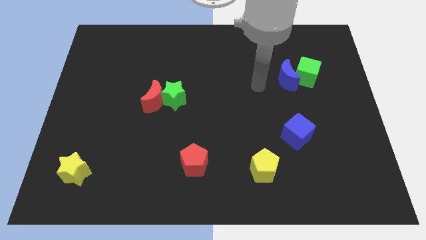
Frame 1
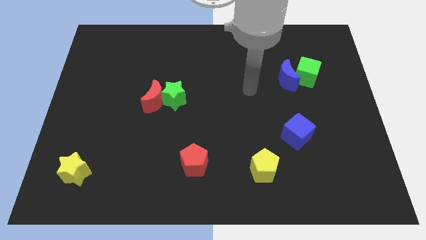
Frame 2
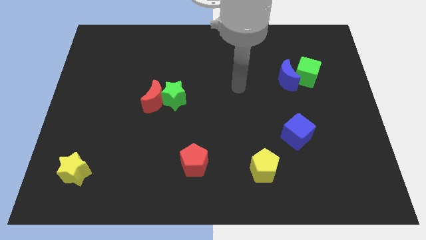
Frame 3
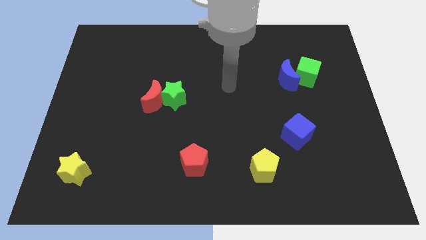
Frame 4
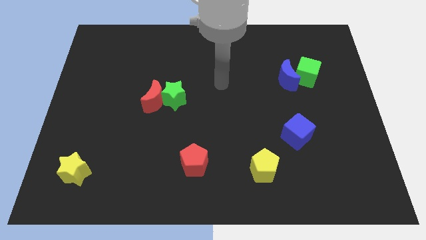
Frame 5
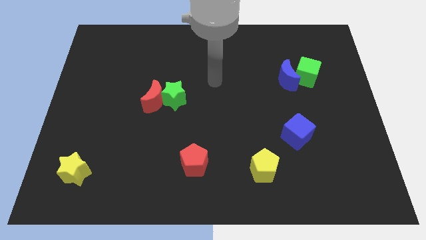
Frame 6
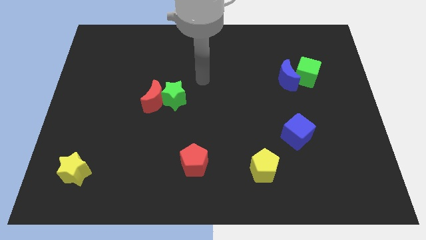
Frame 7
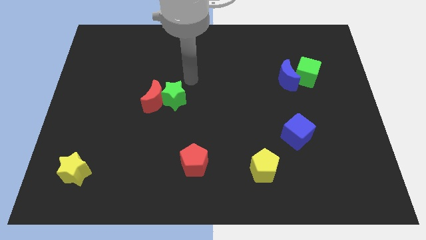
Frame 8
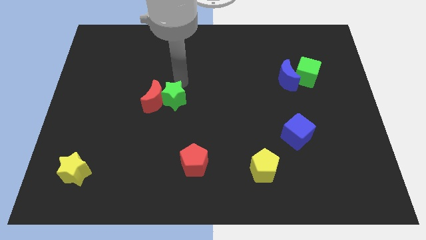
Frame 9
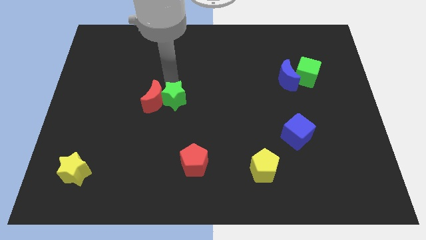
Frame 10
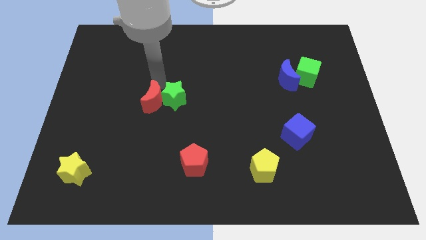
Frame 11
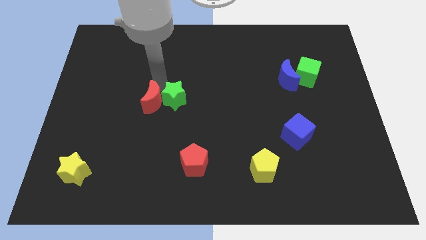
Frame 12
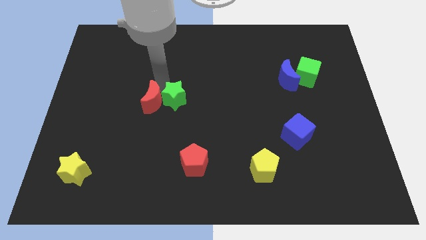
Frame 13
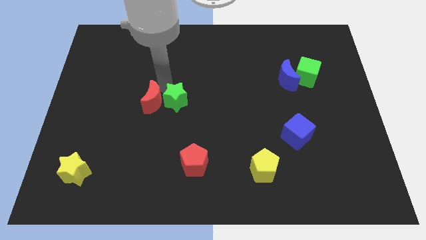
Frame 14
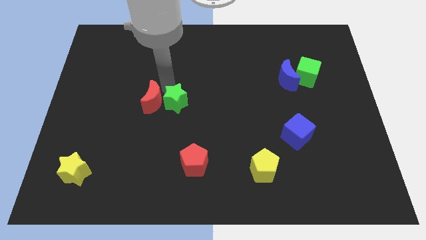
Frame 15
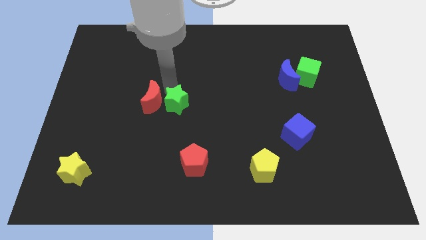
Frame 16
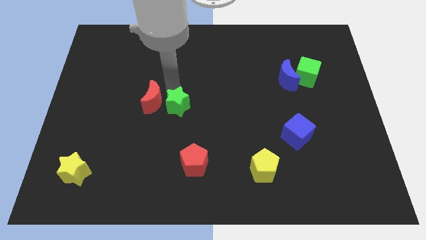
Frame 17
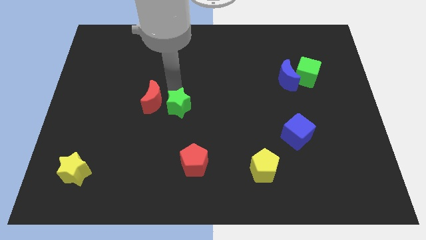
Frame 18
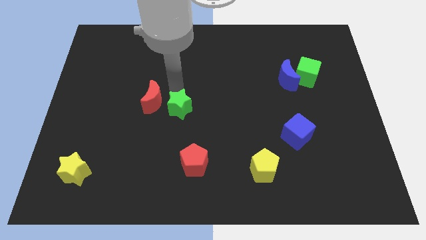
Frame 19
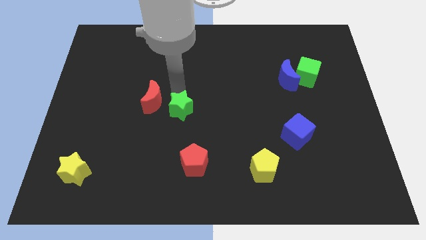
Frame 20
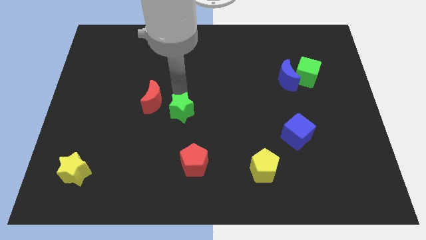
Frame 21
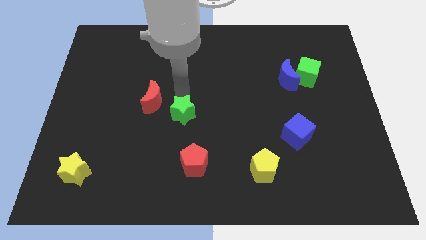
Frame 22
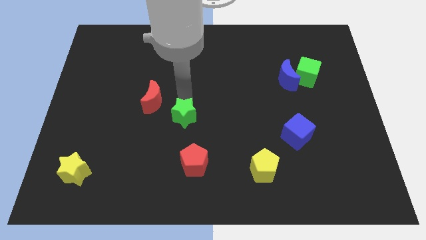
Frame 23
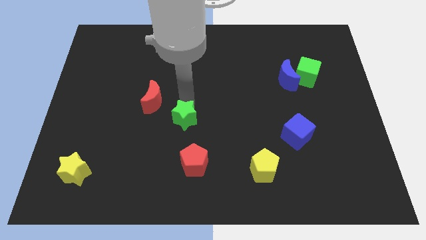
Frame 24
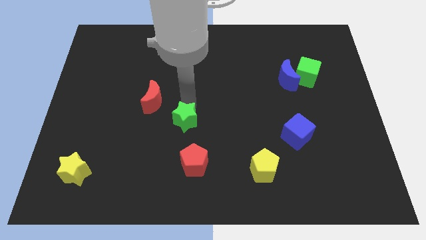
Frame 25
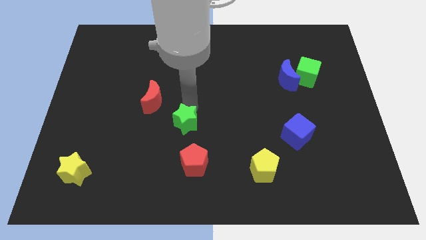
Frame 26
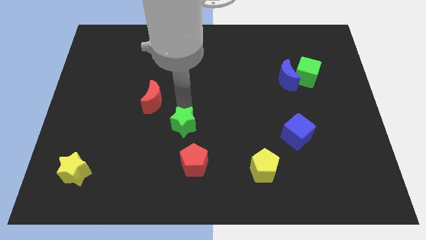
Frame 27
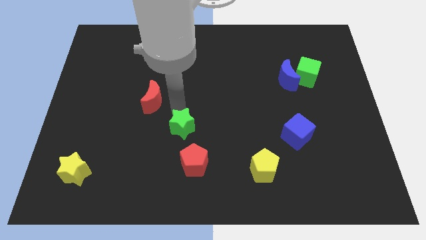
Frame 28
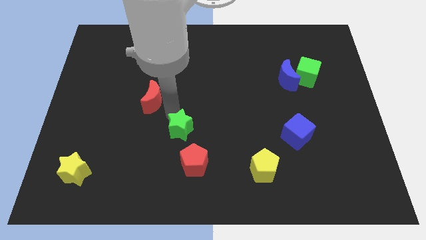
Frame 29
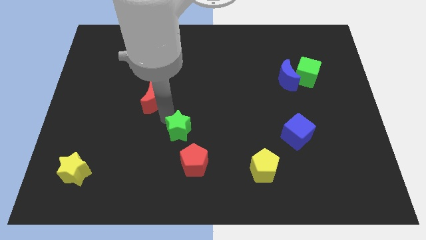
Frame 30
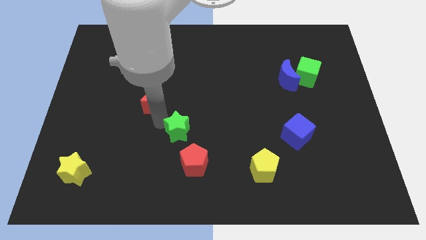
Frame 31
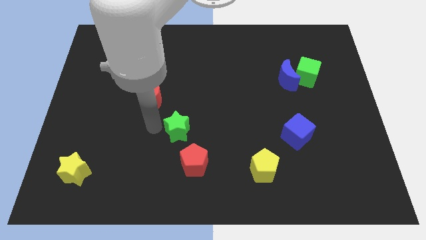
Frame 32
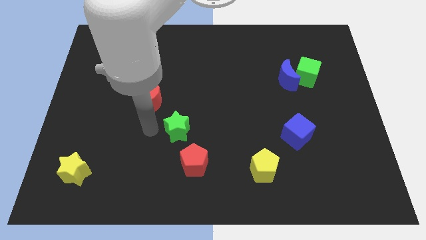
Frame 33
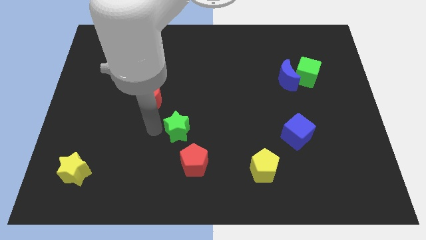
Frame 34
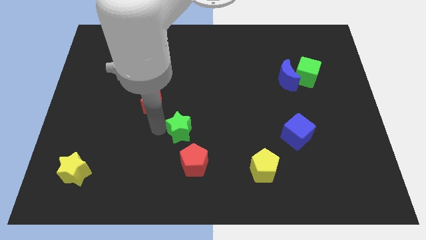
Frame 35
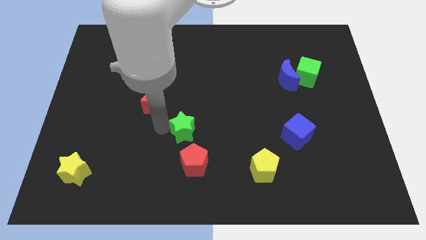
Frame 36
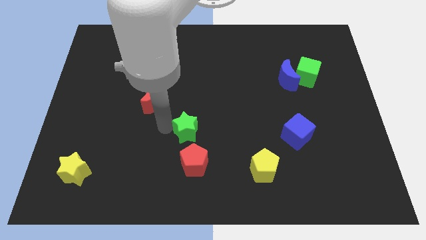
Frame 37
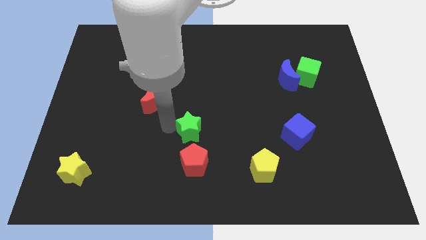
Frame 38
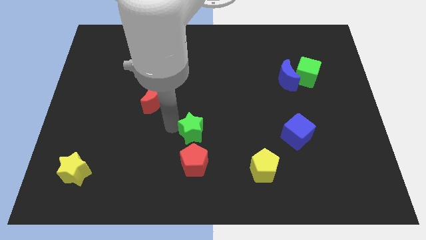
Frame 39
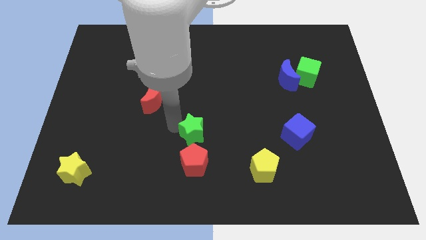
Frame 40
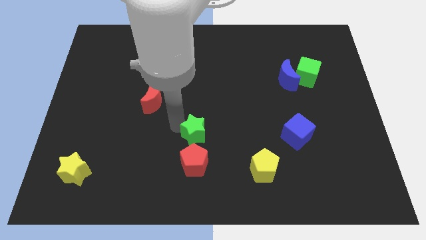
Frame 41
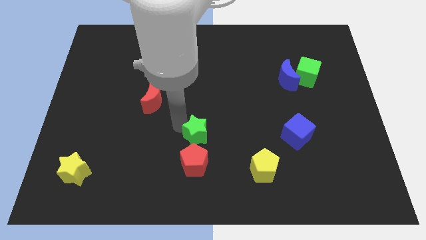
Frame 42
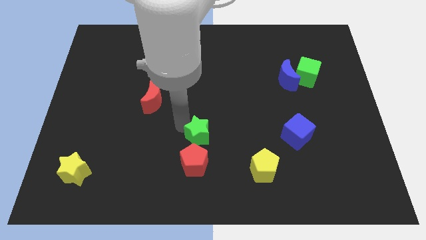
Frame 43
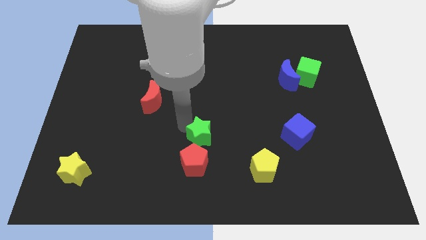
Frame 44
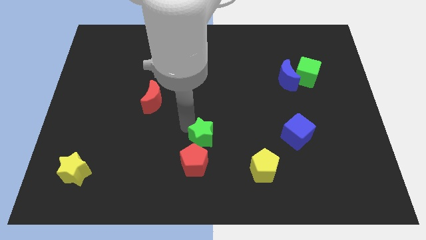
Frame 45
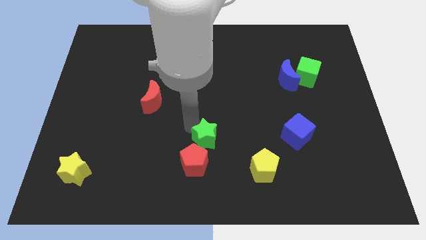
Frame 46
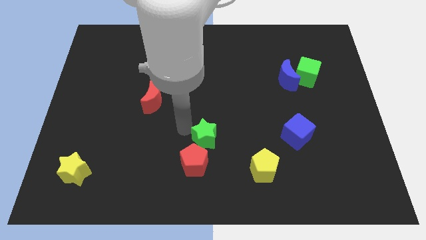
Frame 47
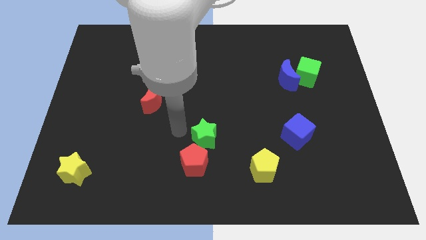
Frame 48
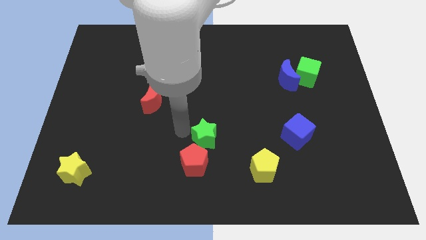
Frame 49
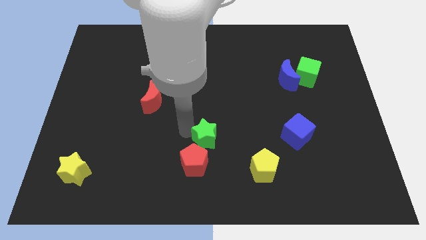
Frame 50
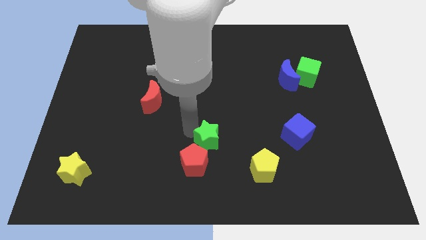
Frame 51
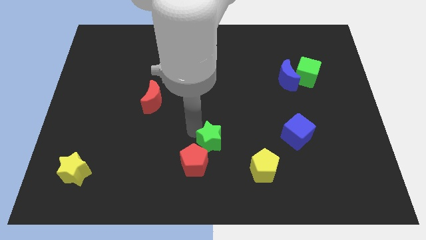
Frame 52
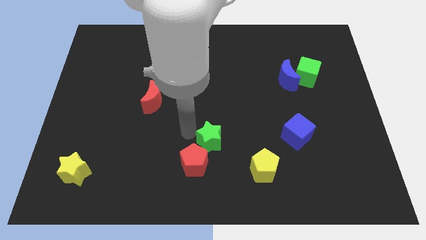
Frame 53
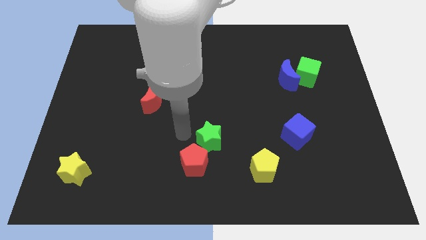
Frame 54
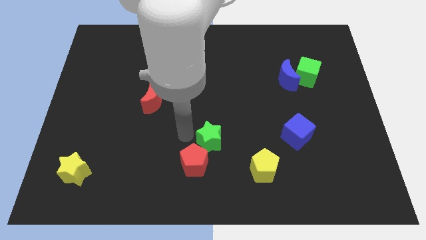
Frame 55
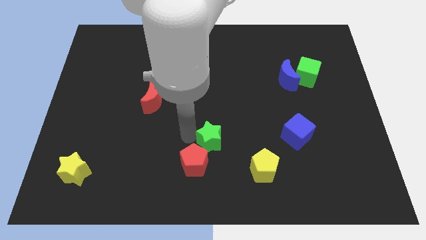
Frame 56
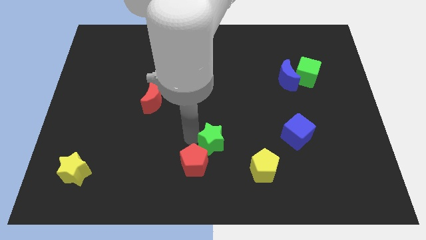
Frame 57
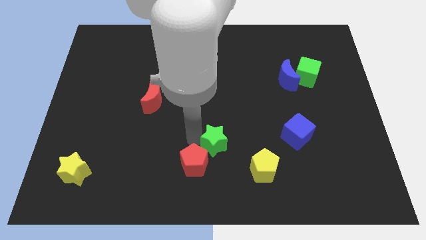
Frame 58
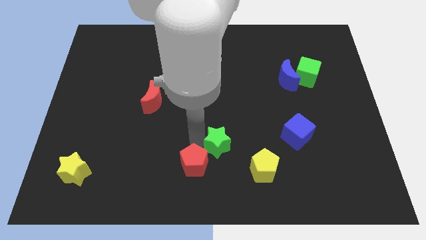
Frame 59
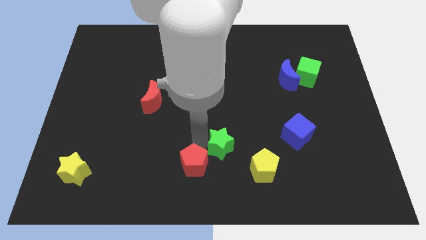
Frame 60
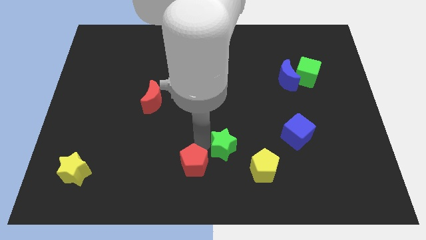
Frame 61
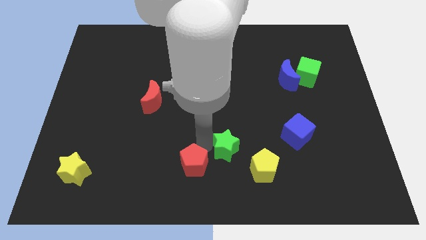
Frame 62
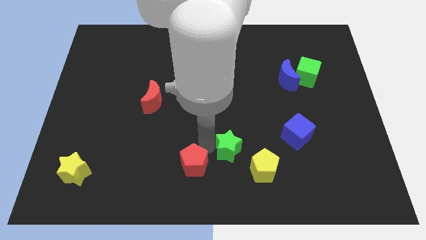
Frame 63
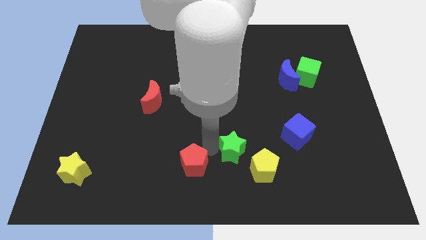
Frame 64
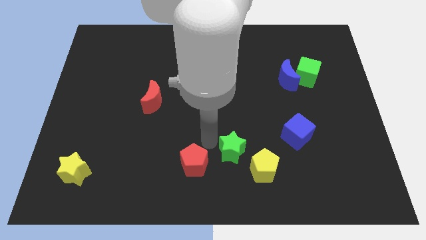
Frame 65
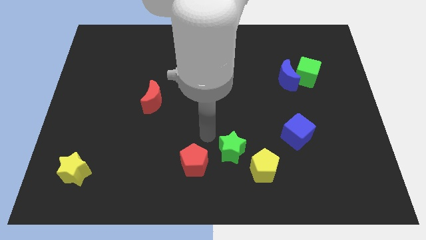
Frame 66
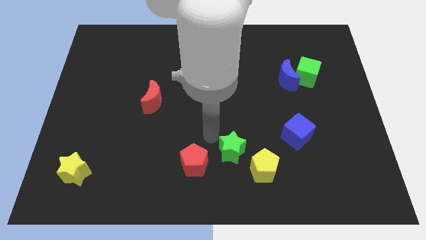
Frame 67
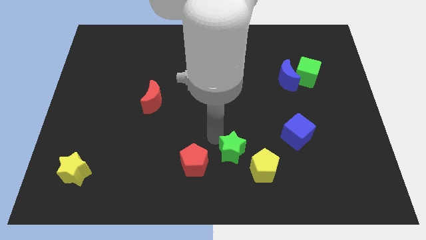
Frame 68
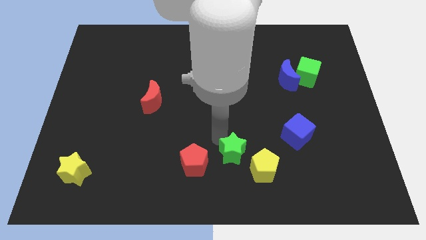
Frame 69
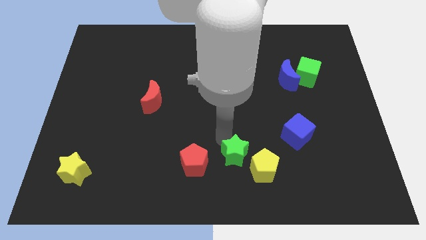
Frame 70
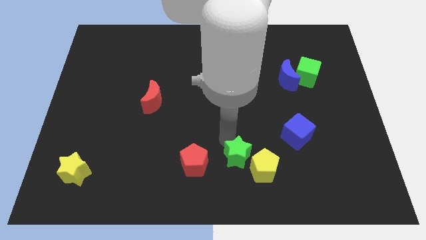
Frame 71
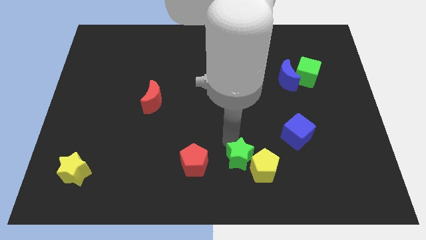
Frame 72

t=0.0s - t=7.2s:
move the green star close to the yellow pentagon
